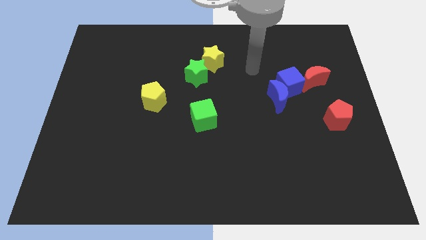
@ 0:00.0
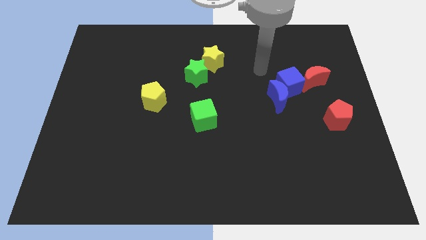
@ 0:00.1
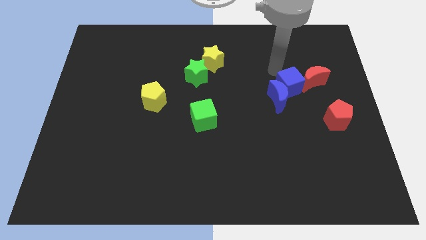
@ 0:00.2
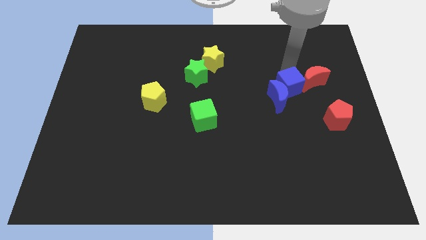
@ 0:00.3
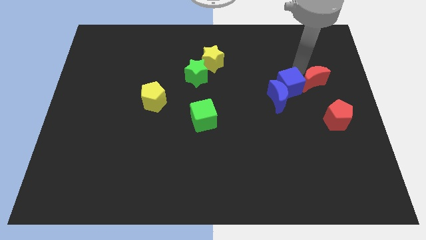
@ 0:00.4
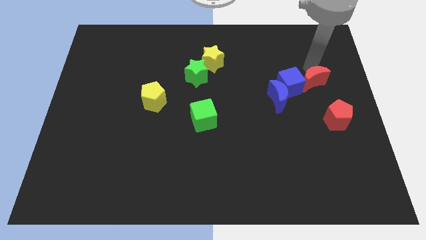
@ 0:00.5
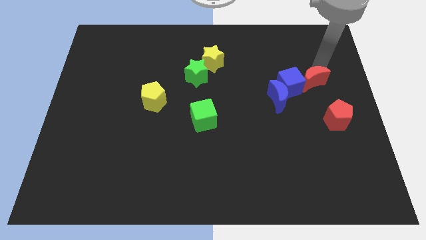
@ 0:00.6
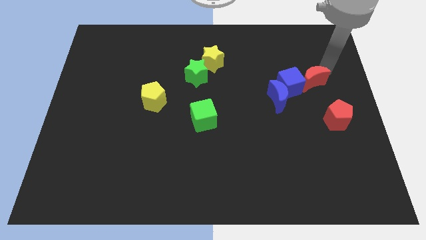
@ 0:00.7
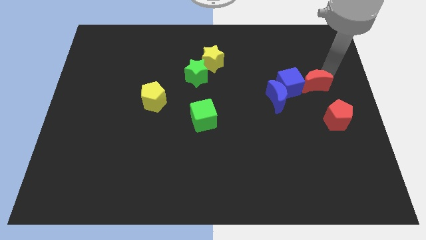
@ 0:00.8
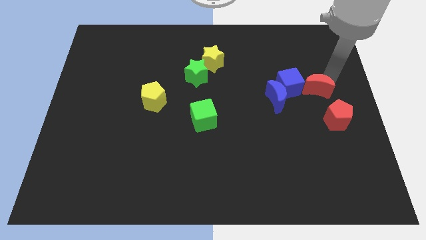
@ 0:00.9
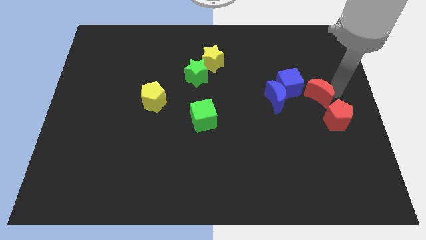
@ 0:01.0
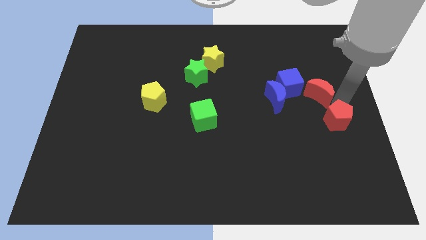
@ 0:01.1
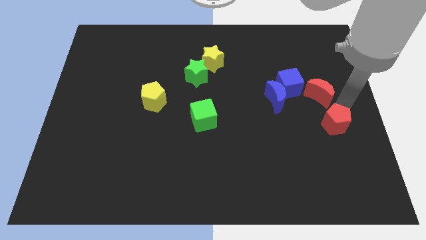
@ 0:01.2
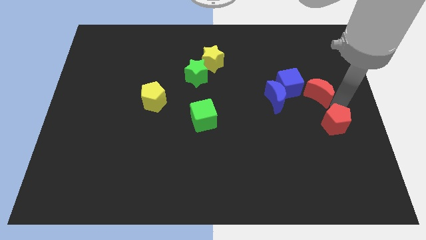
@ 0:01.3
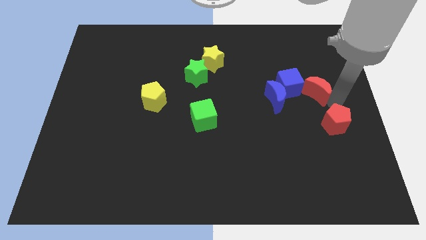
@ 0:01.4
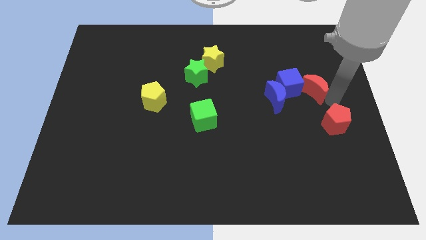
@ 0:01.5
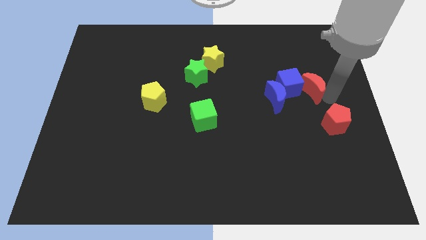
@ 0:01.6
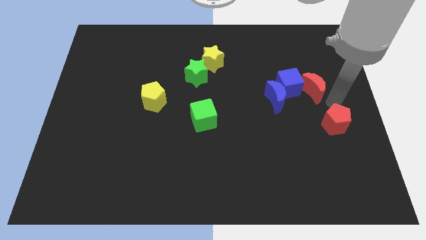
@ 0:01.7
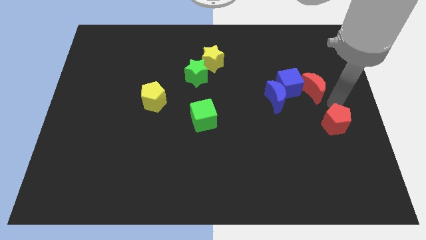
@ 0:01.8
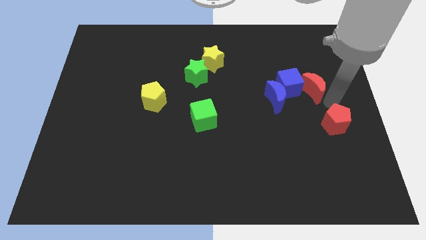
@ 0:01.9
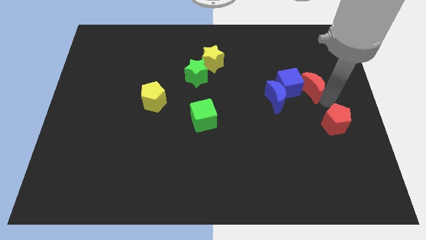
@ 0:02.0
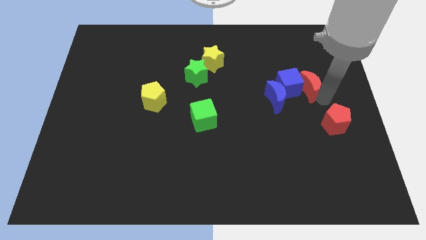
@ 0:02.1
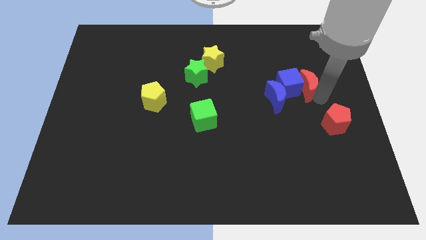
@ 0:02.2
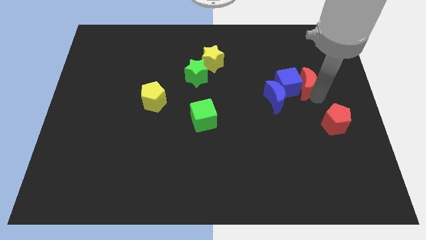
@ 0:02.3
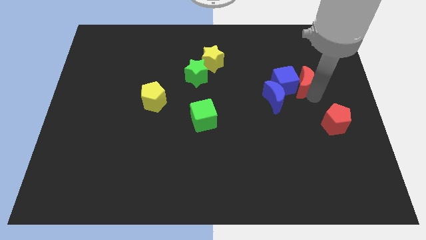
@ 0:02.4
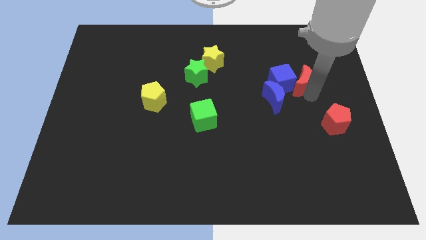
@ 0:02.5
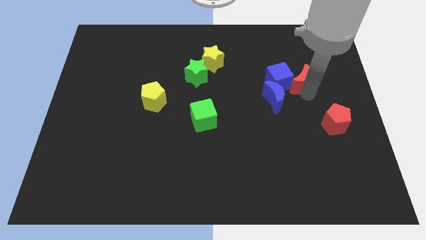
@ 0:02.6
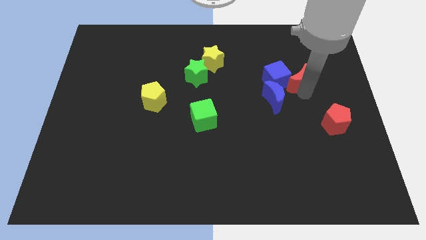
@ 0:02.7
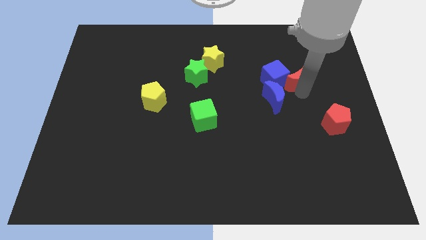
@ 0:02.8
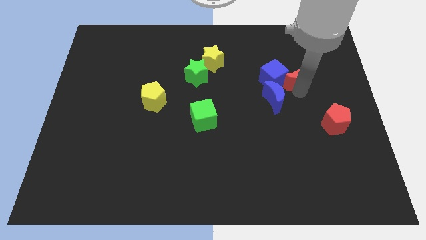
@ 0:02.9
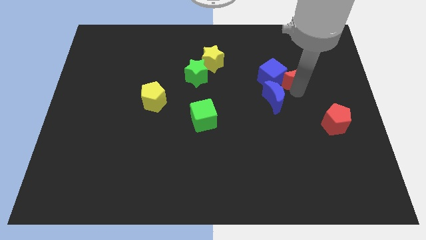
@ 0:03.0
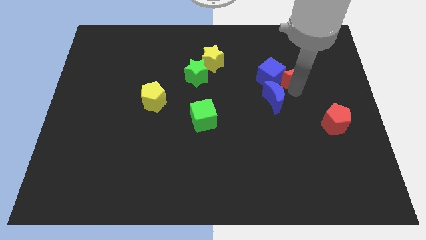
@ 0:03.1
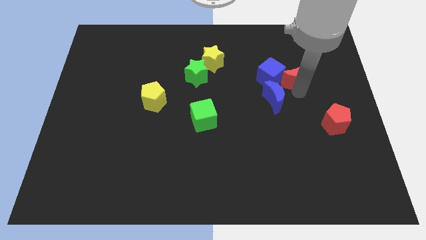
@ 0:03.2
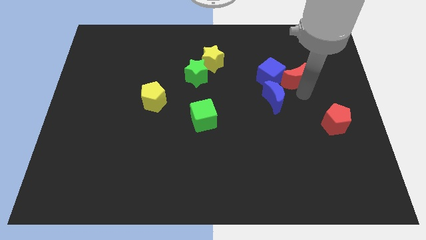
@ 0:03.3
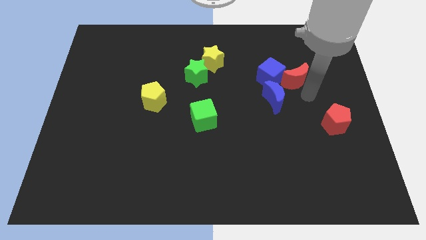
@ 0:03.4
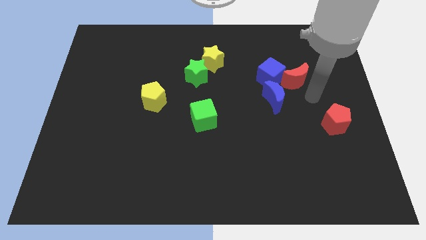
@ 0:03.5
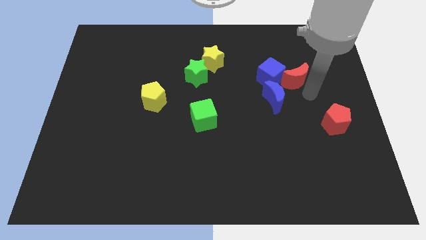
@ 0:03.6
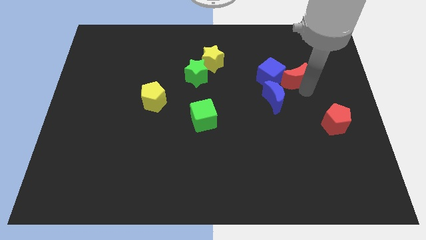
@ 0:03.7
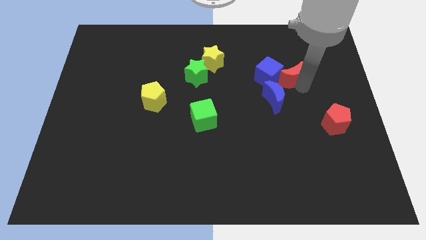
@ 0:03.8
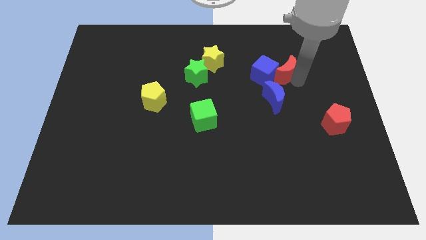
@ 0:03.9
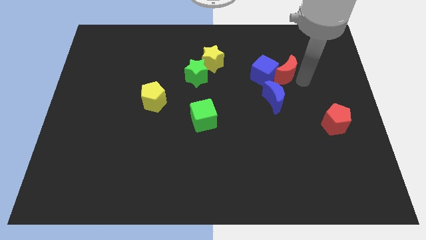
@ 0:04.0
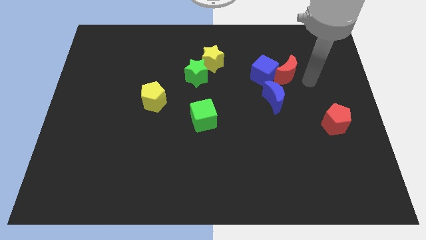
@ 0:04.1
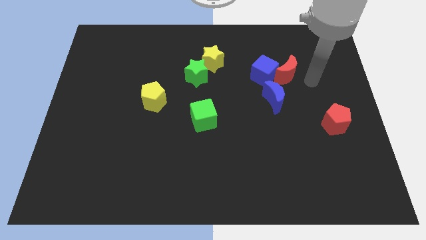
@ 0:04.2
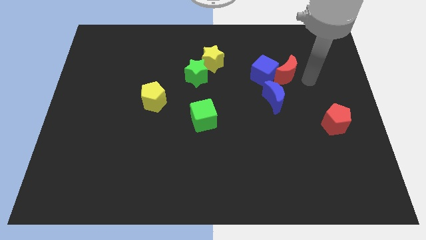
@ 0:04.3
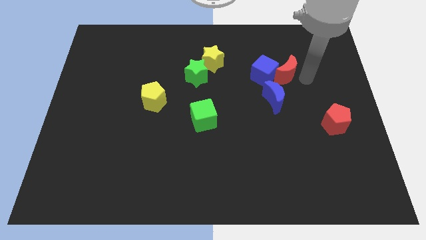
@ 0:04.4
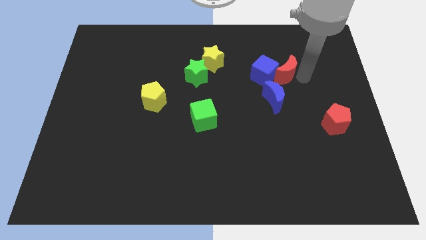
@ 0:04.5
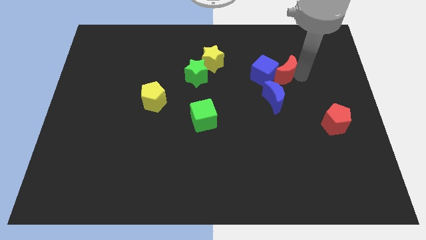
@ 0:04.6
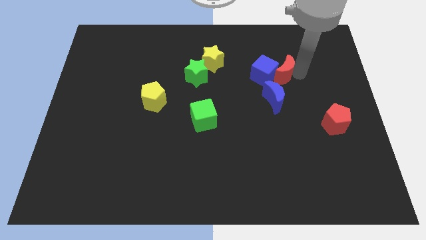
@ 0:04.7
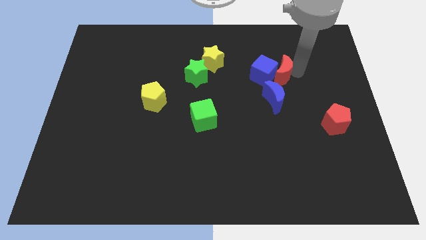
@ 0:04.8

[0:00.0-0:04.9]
slightly push the red moon to the left

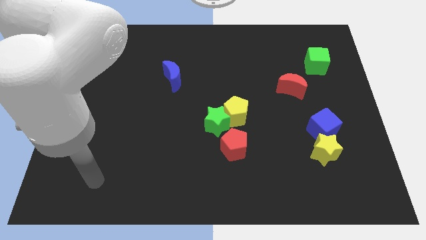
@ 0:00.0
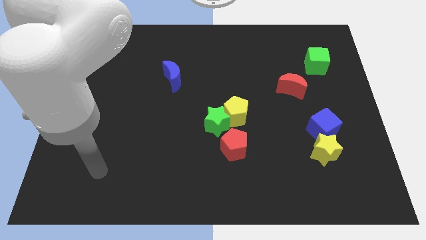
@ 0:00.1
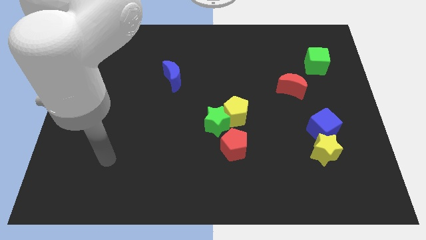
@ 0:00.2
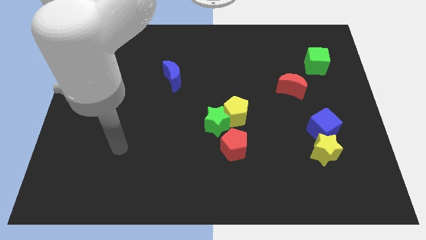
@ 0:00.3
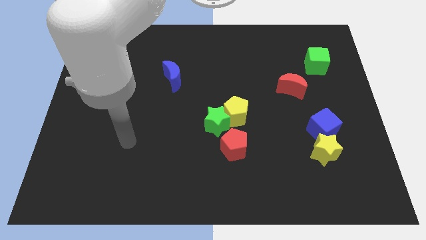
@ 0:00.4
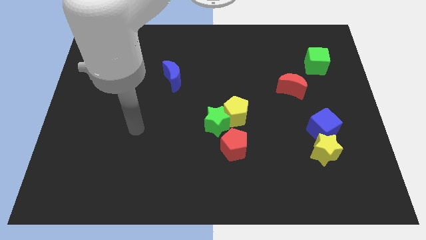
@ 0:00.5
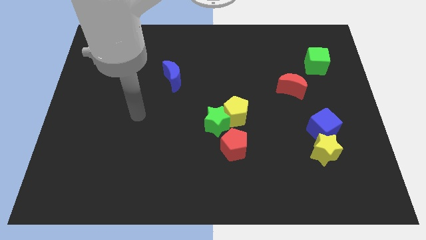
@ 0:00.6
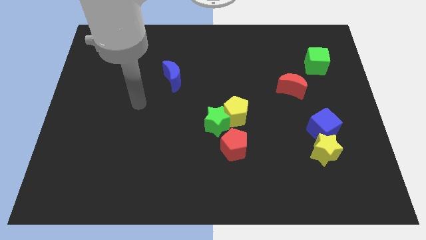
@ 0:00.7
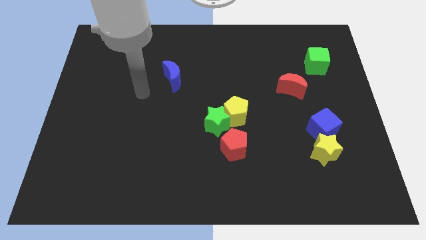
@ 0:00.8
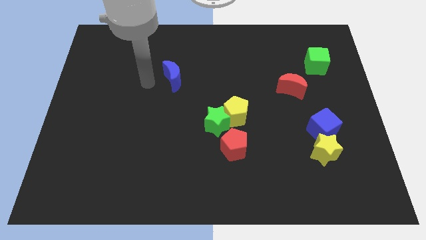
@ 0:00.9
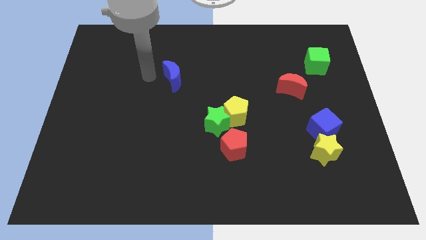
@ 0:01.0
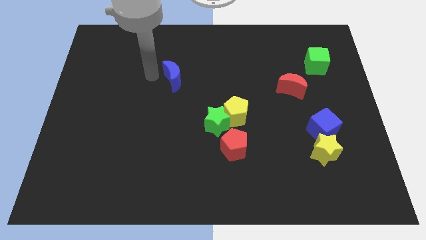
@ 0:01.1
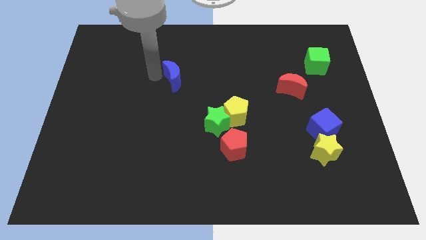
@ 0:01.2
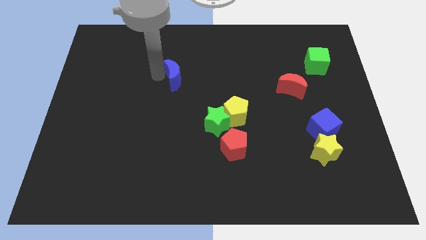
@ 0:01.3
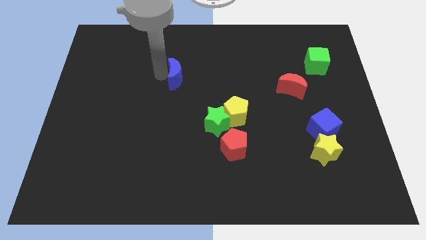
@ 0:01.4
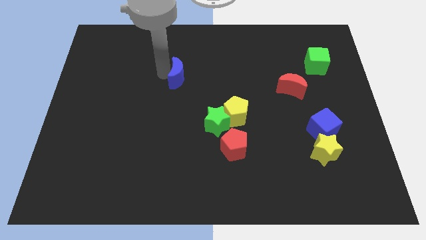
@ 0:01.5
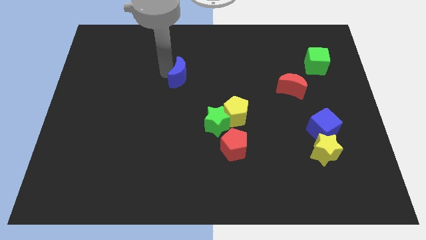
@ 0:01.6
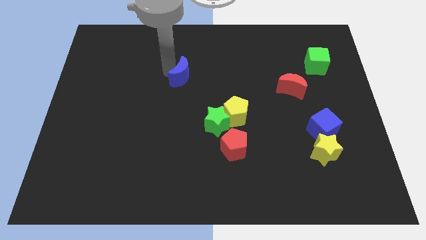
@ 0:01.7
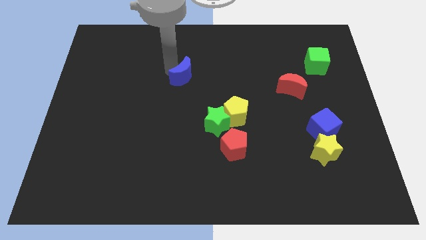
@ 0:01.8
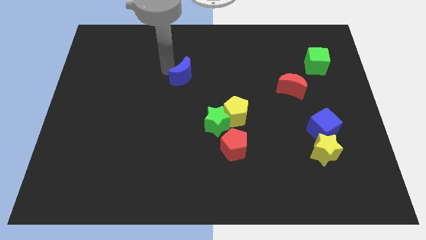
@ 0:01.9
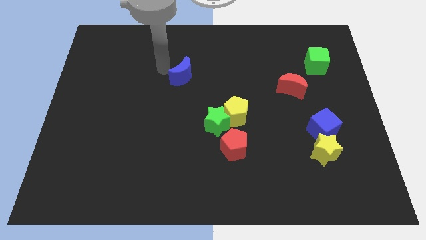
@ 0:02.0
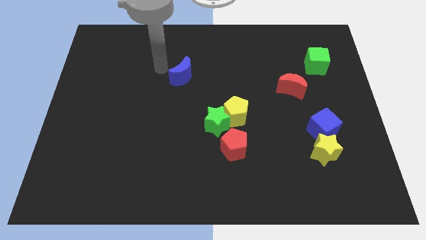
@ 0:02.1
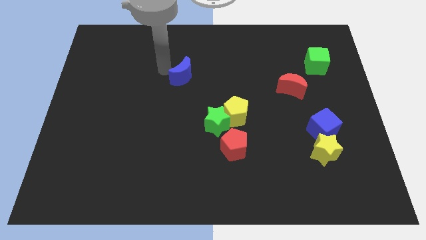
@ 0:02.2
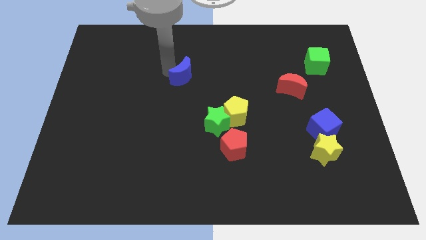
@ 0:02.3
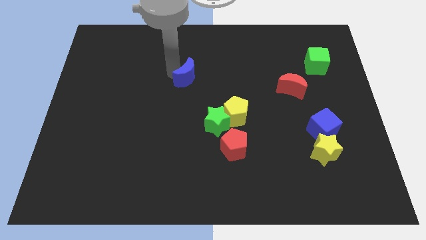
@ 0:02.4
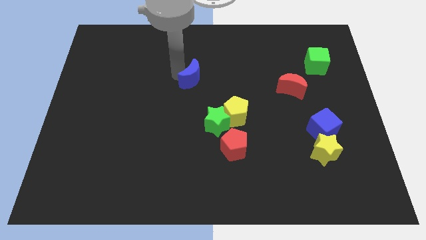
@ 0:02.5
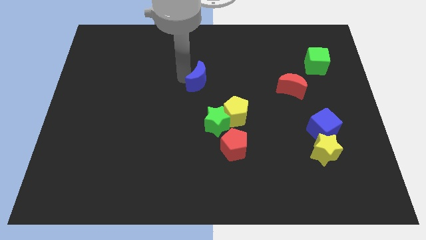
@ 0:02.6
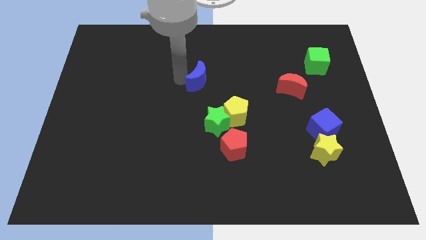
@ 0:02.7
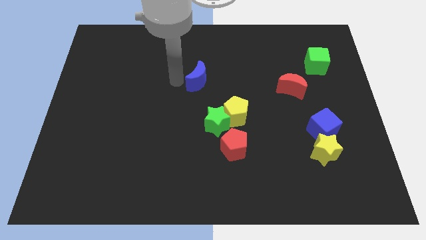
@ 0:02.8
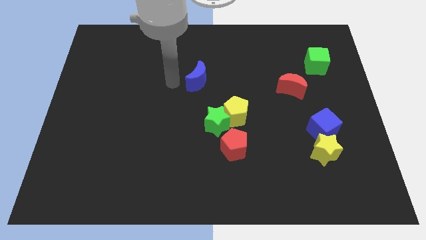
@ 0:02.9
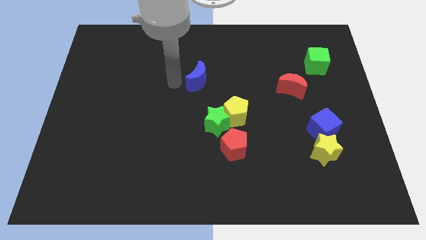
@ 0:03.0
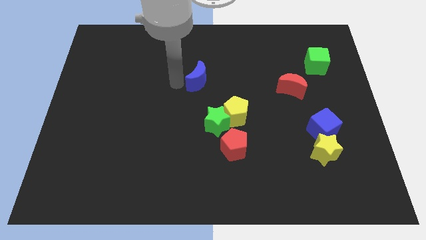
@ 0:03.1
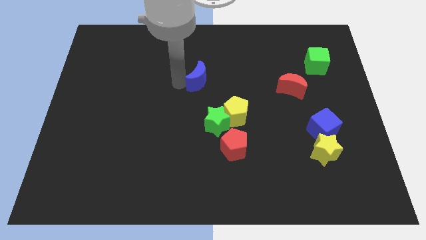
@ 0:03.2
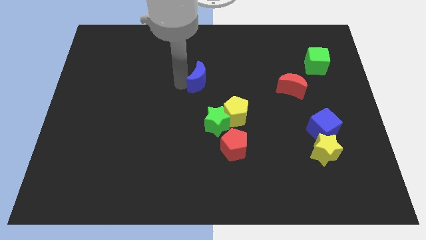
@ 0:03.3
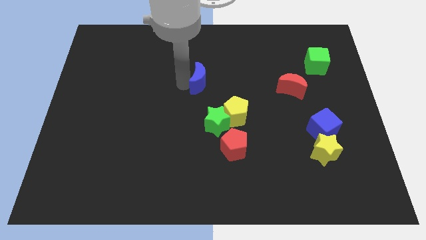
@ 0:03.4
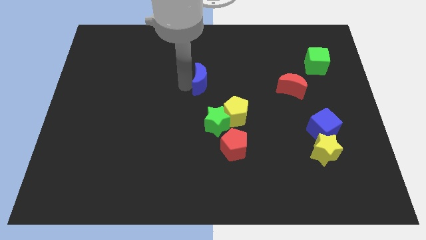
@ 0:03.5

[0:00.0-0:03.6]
slide the blue moon to the right somewhat
